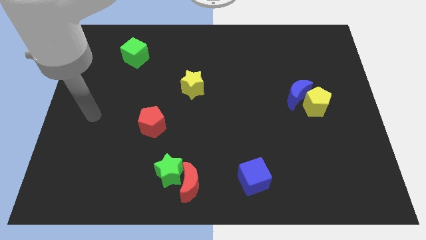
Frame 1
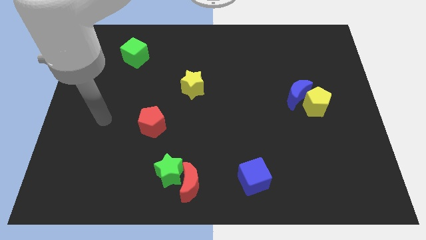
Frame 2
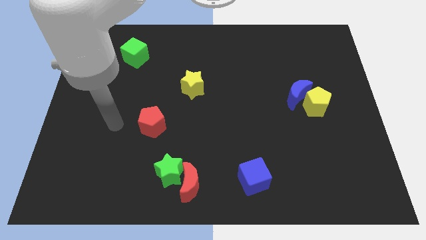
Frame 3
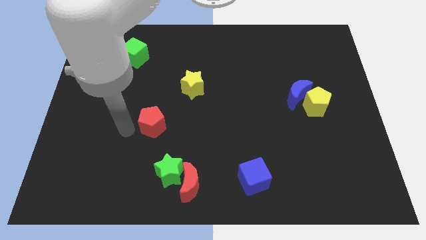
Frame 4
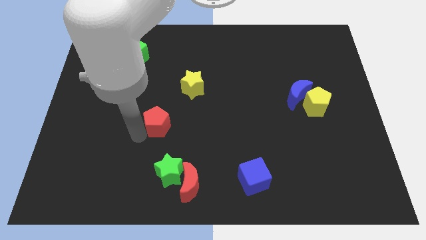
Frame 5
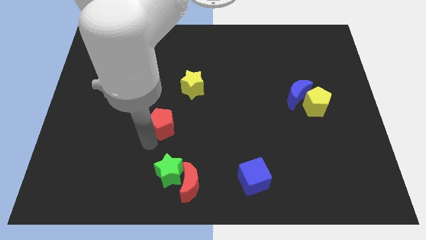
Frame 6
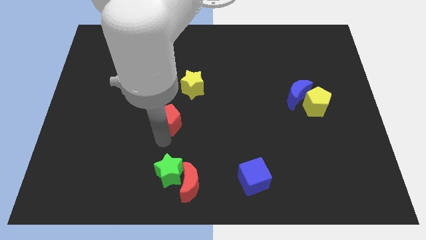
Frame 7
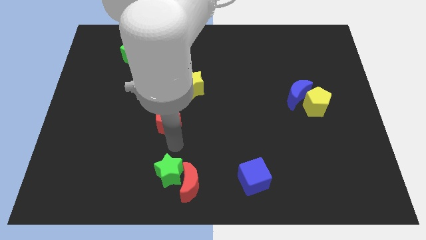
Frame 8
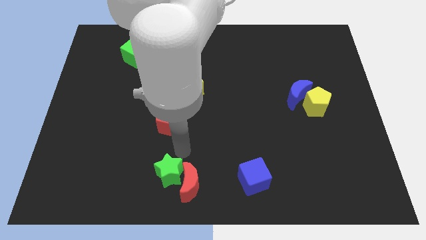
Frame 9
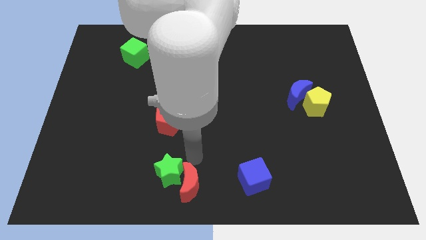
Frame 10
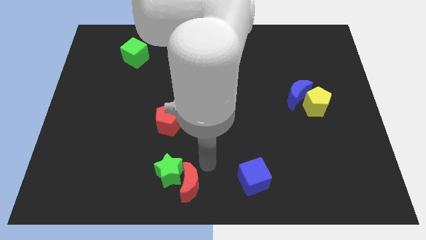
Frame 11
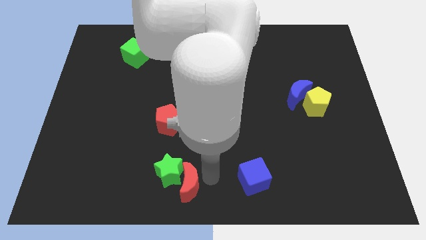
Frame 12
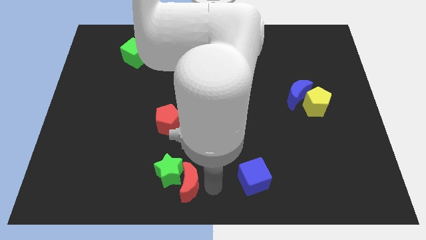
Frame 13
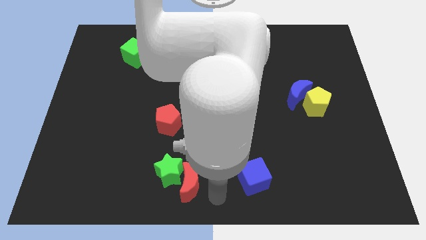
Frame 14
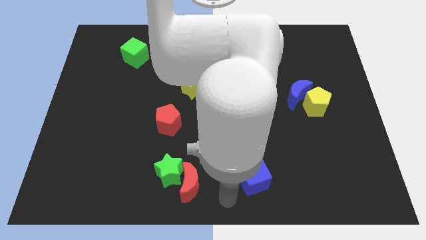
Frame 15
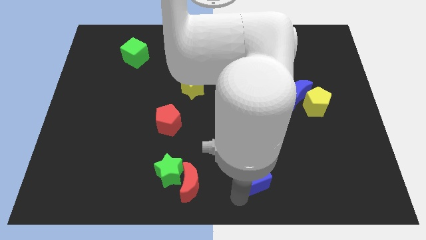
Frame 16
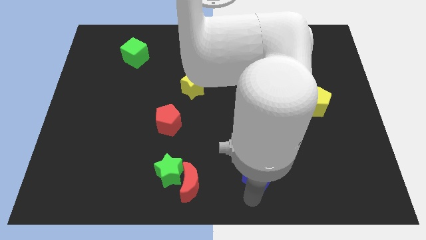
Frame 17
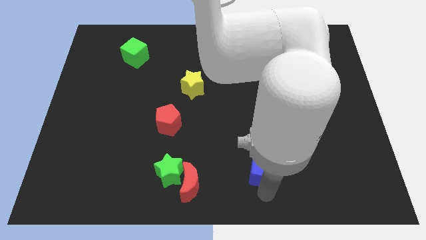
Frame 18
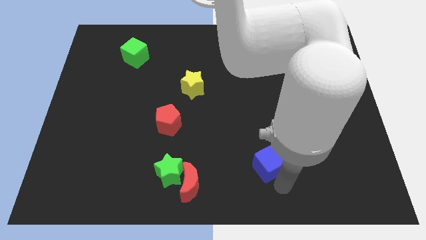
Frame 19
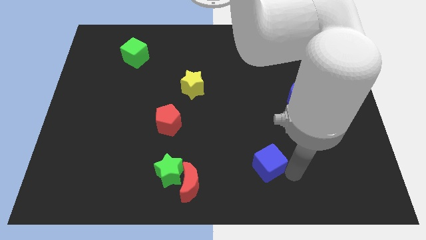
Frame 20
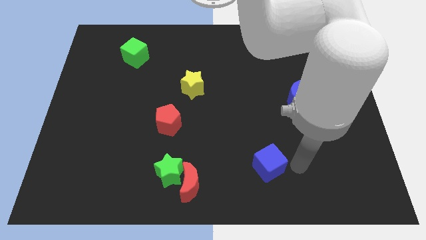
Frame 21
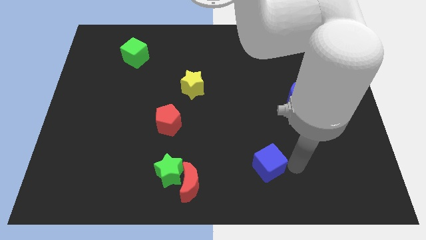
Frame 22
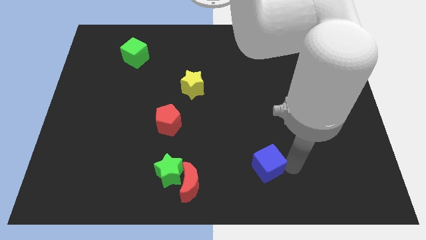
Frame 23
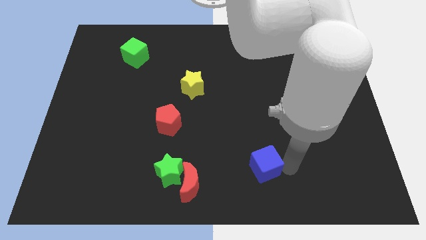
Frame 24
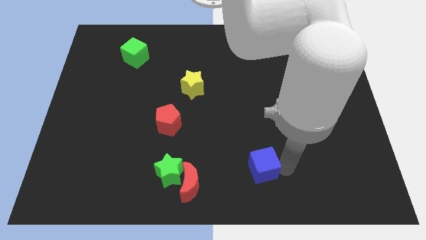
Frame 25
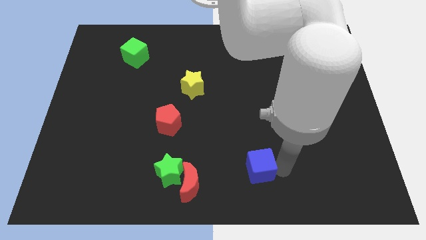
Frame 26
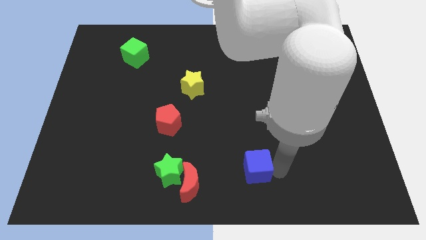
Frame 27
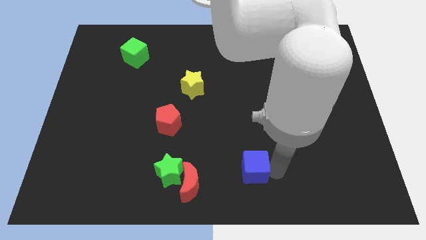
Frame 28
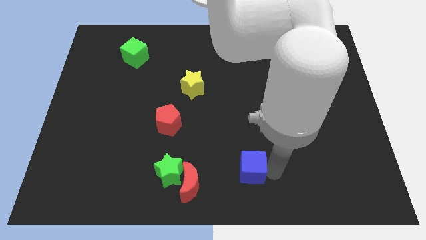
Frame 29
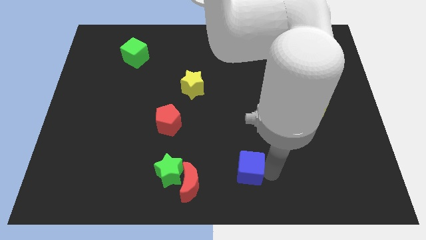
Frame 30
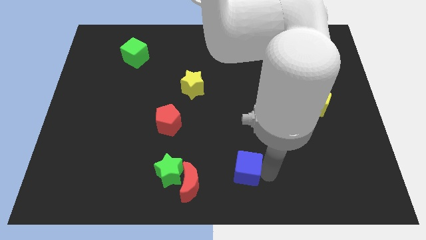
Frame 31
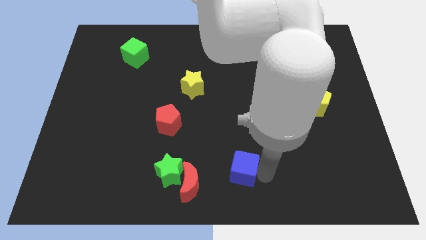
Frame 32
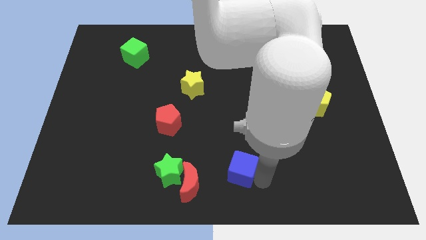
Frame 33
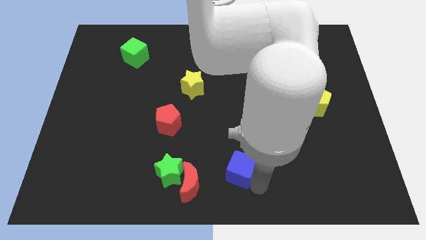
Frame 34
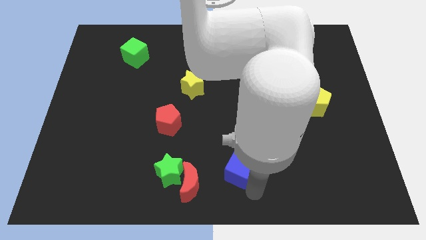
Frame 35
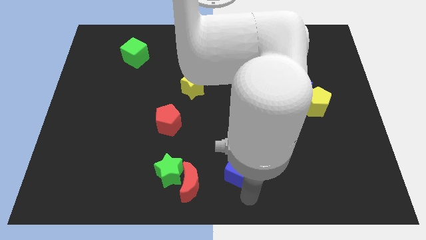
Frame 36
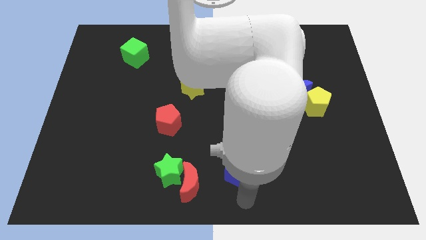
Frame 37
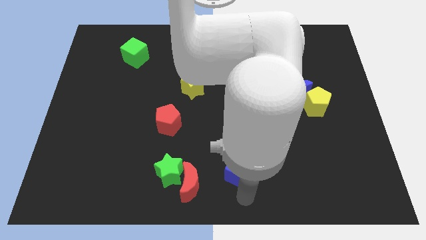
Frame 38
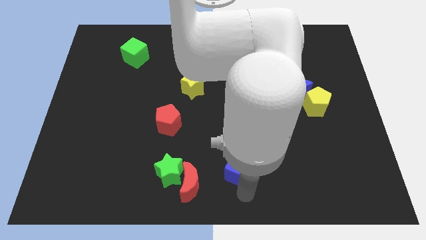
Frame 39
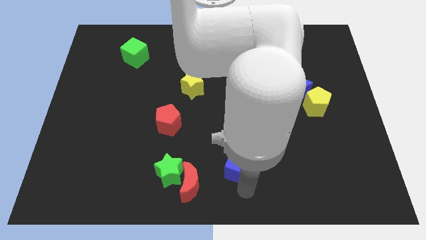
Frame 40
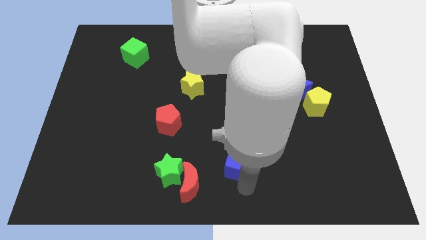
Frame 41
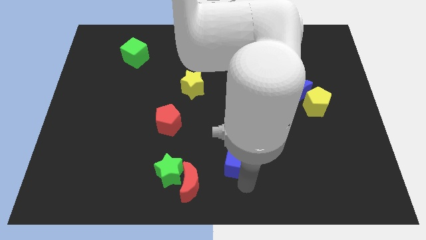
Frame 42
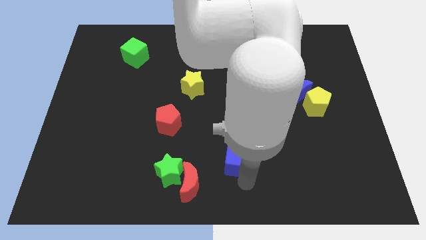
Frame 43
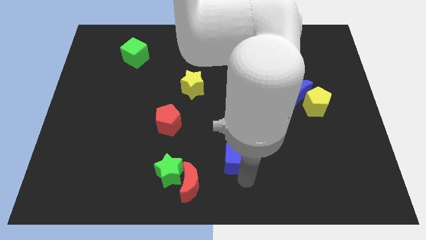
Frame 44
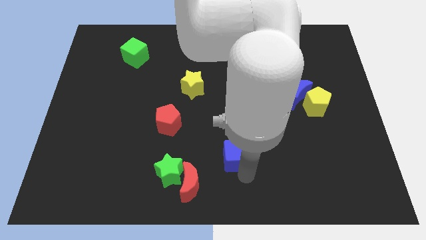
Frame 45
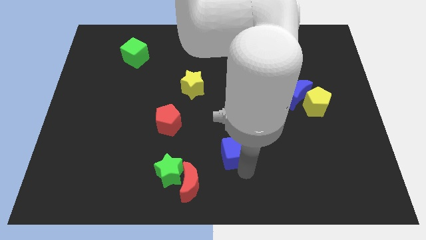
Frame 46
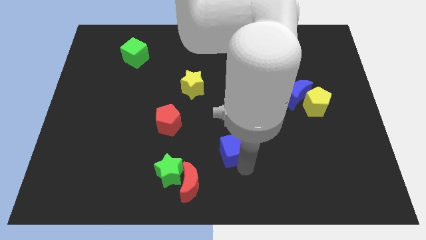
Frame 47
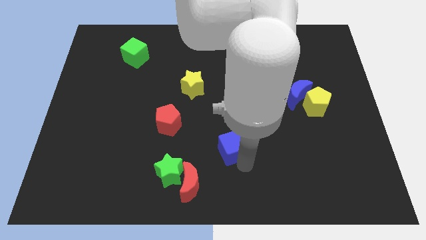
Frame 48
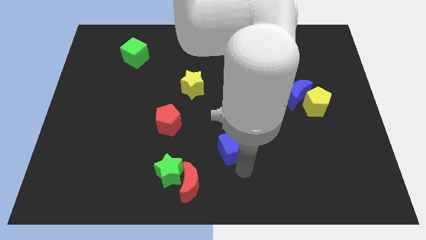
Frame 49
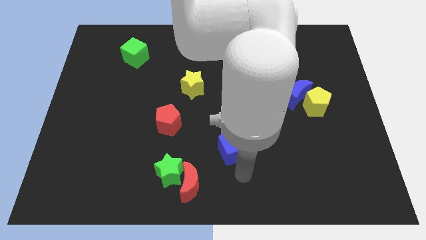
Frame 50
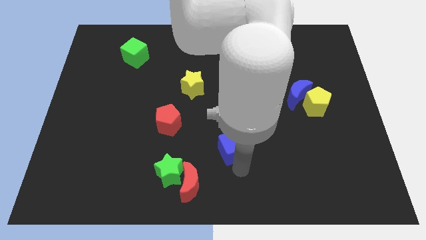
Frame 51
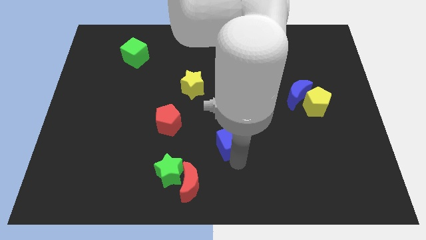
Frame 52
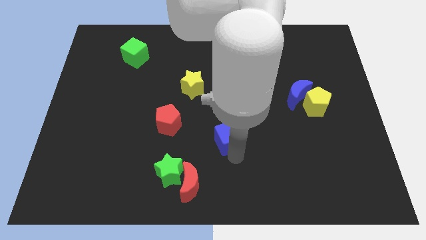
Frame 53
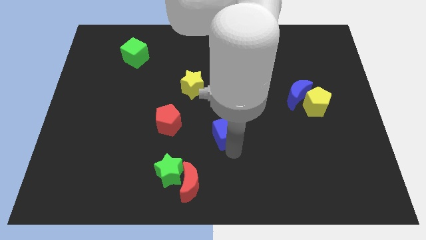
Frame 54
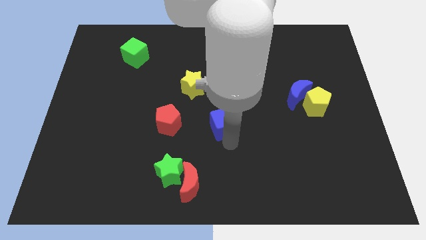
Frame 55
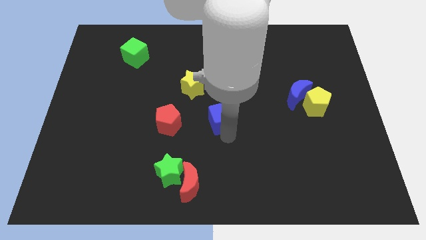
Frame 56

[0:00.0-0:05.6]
move the blue cube to the bottom right of the yellow star
